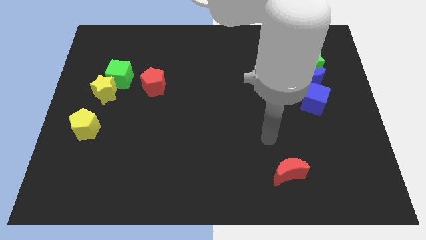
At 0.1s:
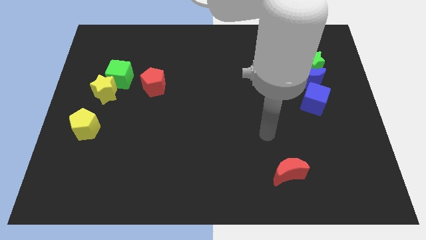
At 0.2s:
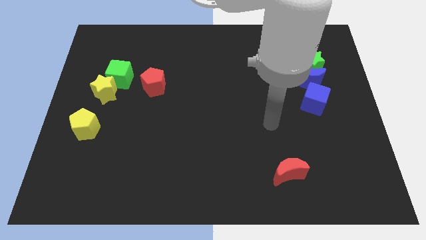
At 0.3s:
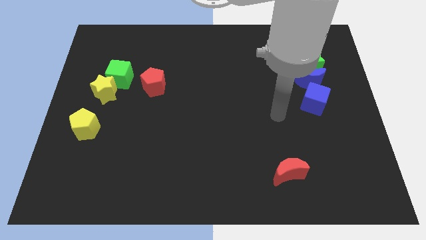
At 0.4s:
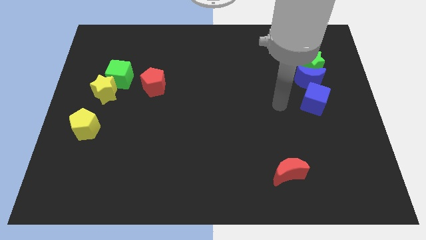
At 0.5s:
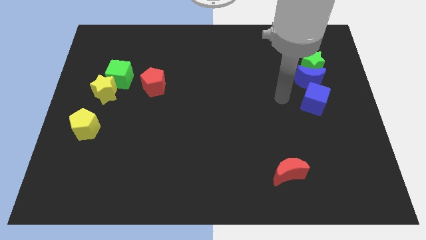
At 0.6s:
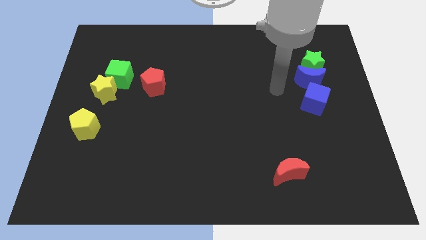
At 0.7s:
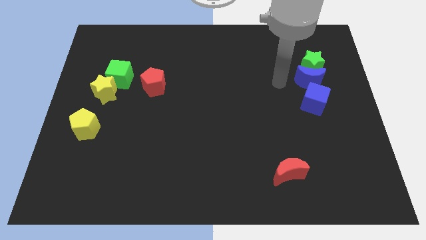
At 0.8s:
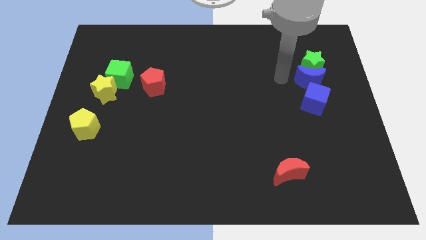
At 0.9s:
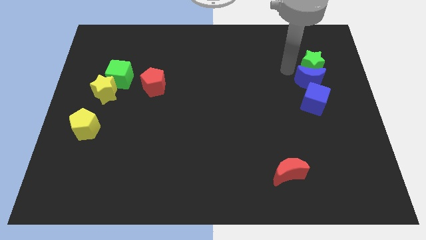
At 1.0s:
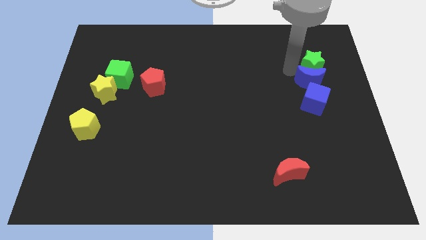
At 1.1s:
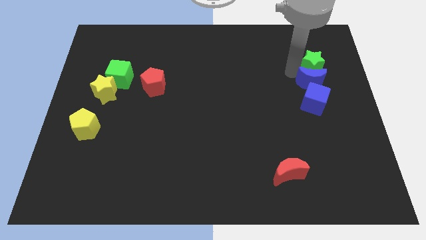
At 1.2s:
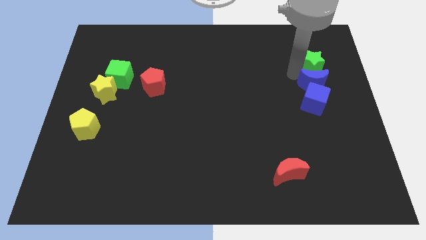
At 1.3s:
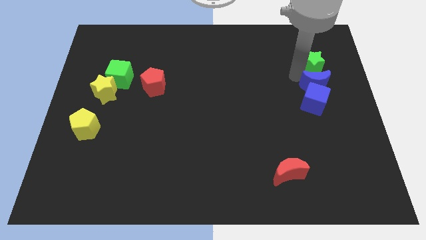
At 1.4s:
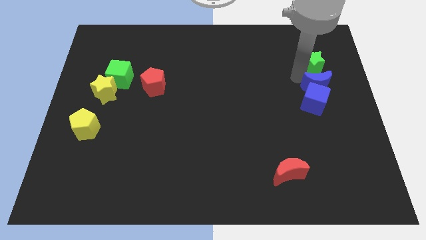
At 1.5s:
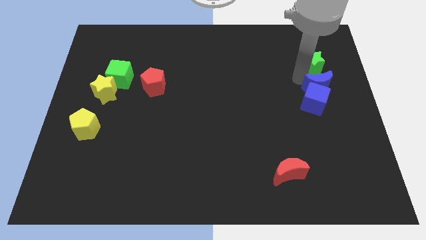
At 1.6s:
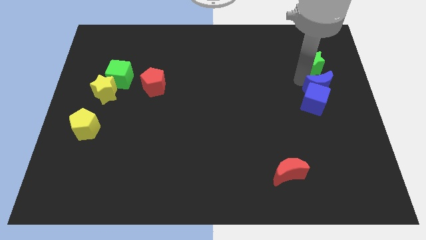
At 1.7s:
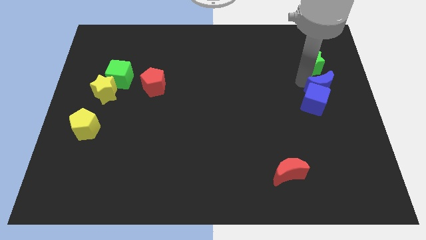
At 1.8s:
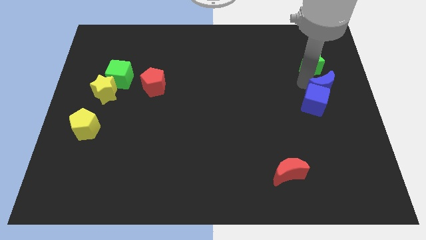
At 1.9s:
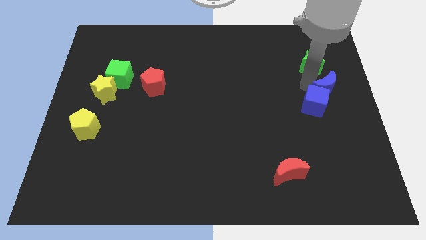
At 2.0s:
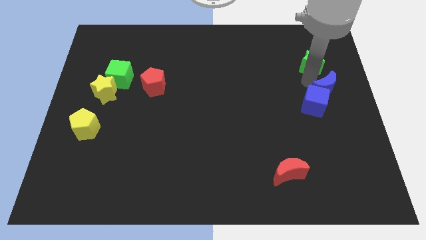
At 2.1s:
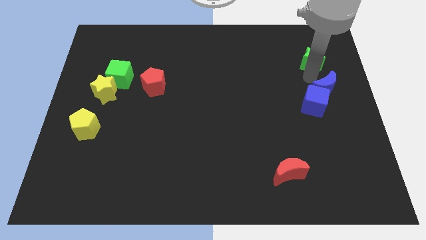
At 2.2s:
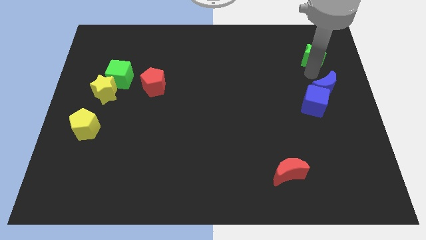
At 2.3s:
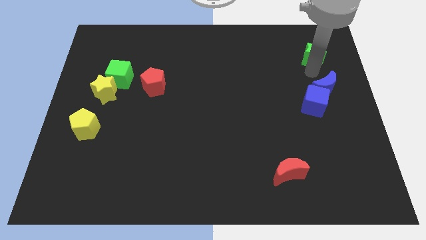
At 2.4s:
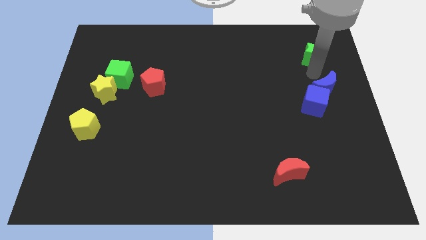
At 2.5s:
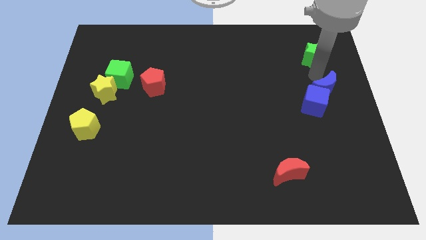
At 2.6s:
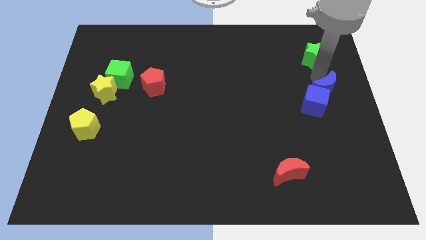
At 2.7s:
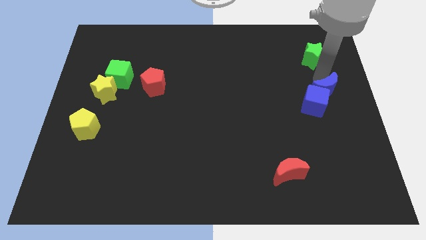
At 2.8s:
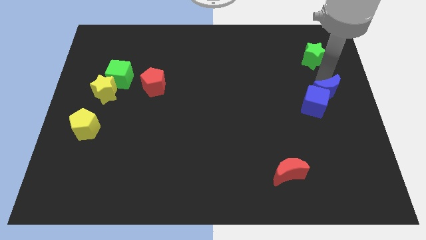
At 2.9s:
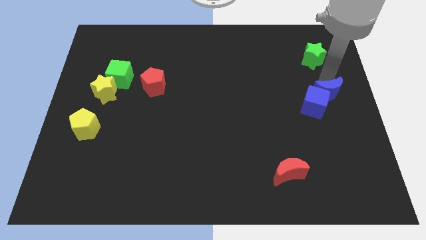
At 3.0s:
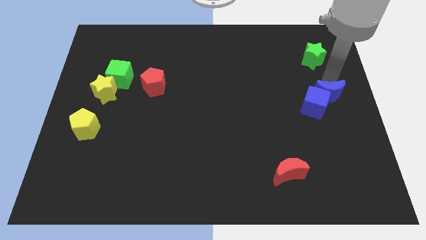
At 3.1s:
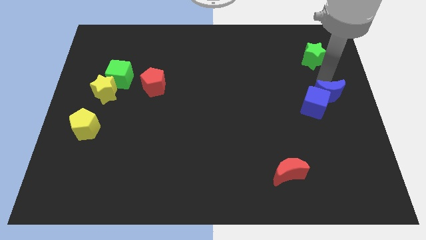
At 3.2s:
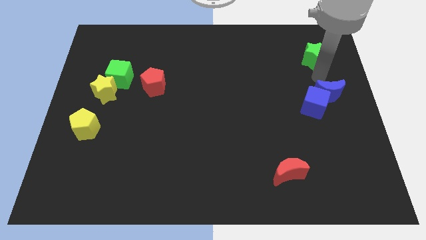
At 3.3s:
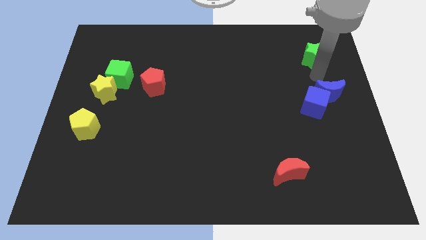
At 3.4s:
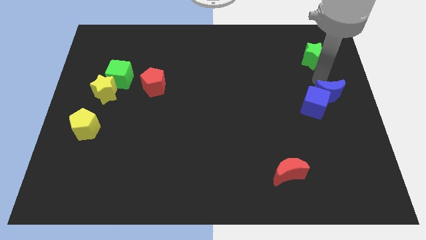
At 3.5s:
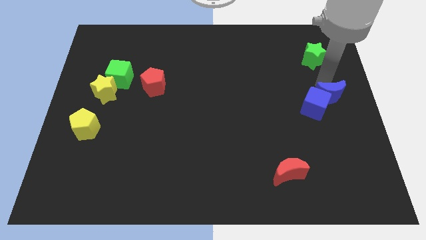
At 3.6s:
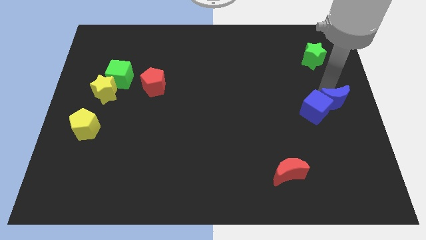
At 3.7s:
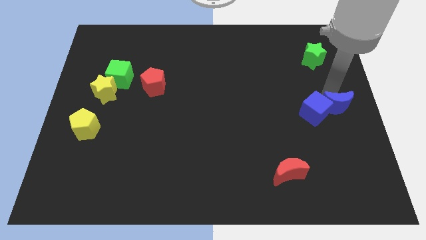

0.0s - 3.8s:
push the blue moon a bit downwards

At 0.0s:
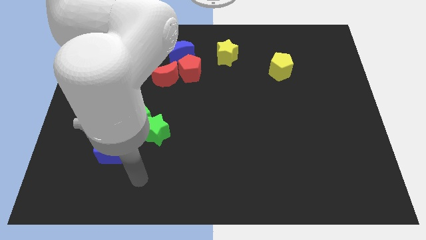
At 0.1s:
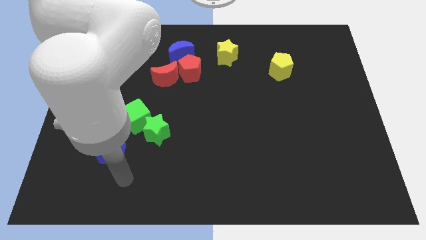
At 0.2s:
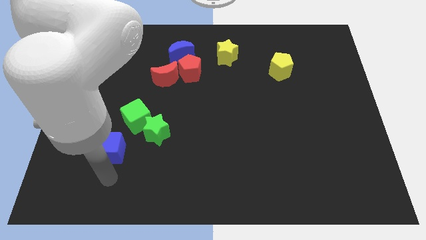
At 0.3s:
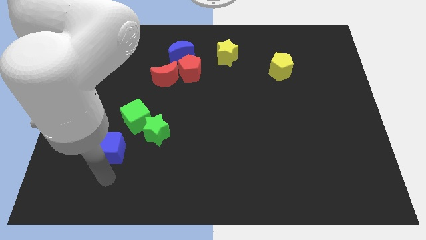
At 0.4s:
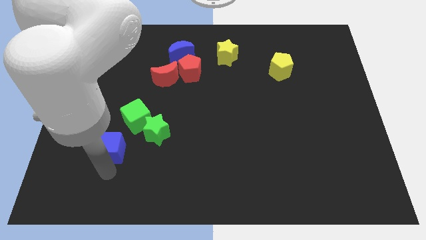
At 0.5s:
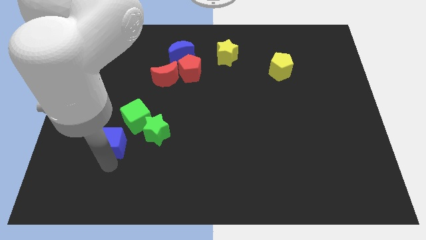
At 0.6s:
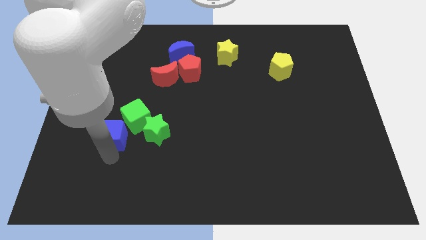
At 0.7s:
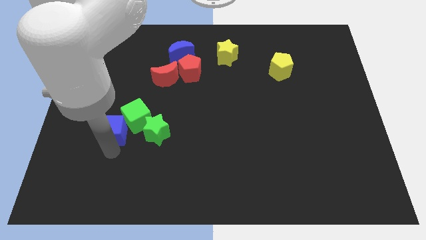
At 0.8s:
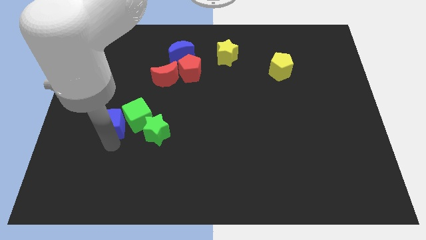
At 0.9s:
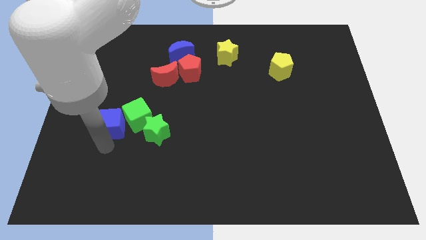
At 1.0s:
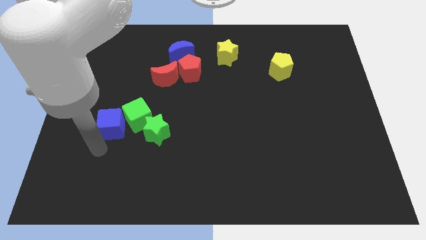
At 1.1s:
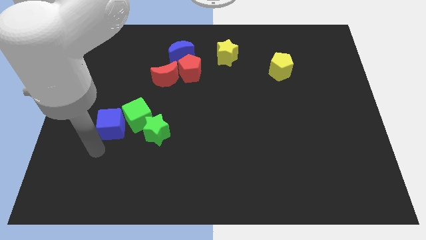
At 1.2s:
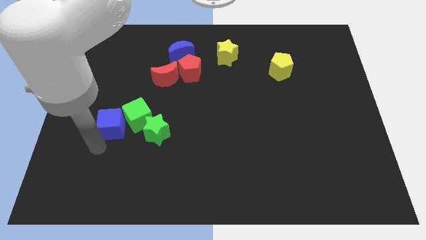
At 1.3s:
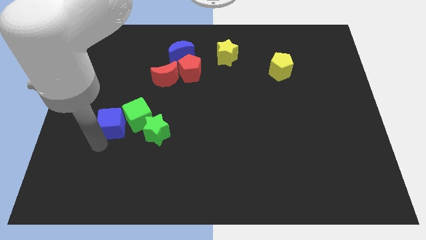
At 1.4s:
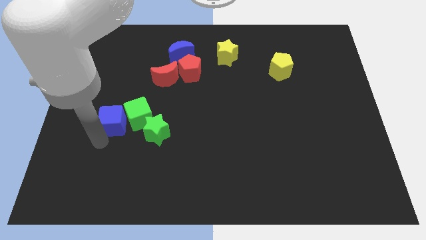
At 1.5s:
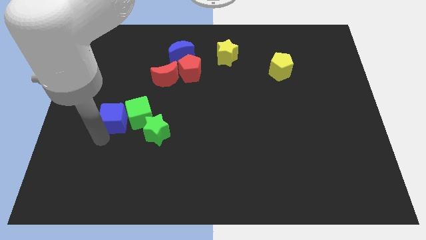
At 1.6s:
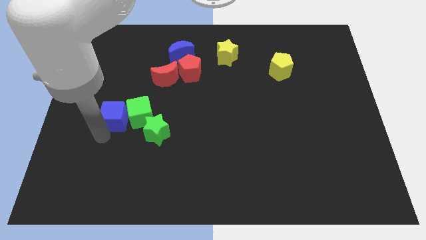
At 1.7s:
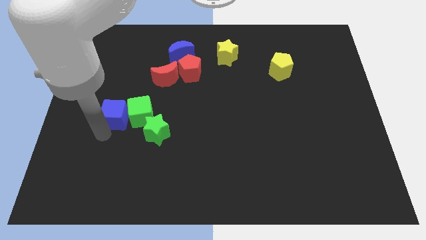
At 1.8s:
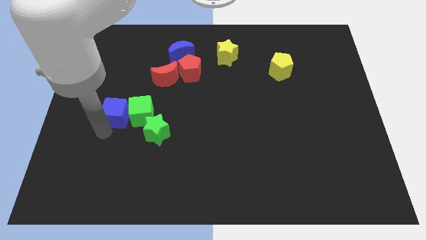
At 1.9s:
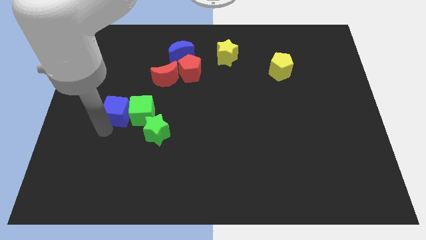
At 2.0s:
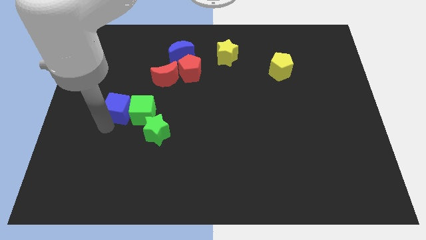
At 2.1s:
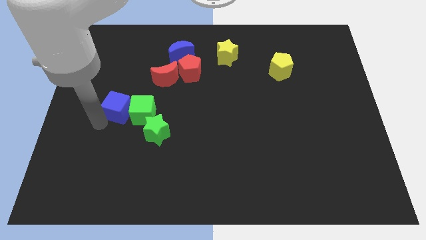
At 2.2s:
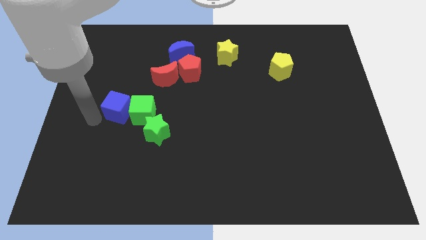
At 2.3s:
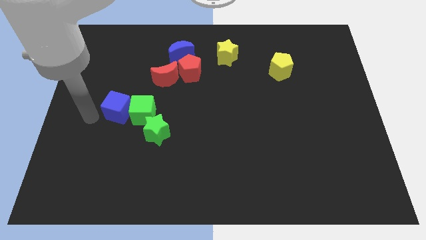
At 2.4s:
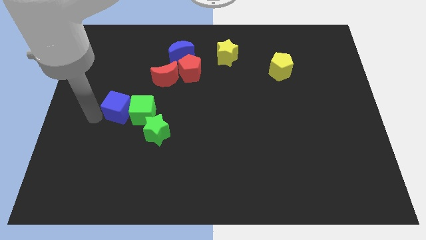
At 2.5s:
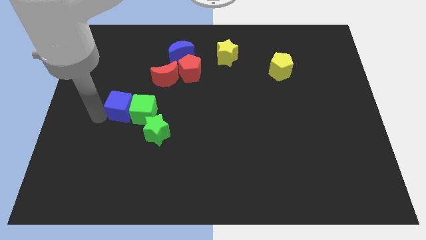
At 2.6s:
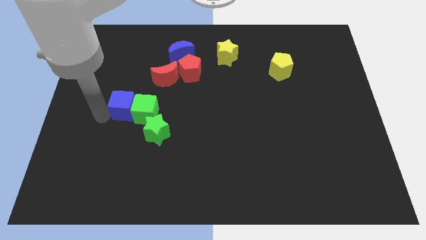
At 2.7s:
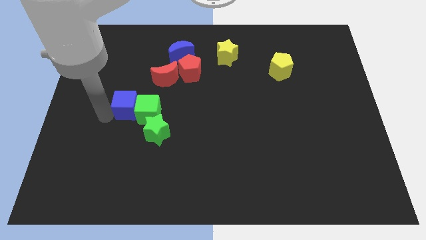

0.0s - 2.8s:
slightly slide the blue cube upwards and then to the right

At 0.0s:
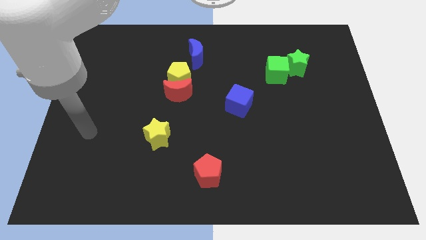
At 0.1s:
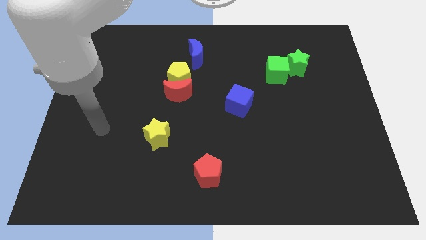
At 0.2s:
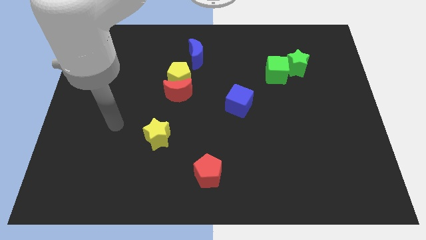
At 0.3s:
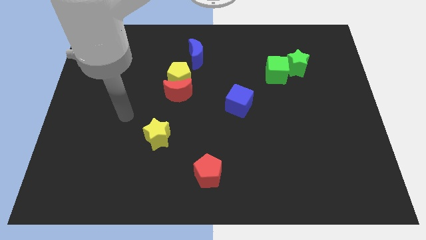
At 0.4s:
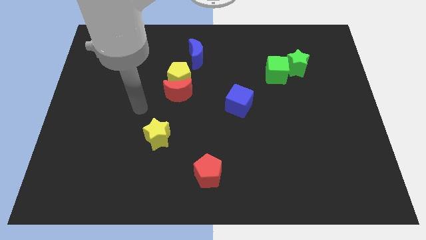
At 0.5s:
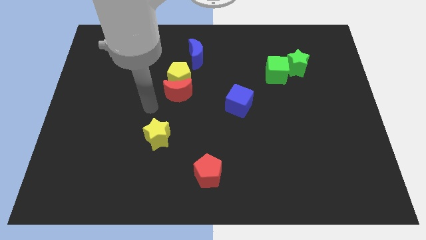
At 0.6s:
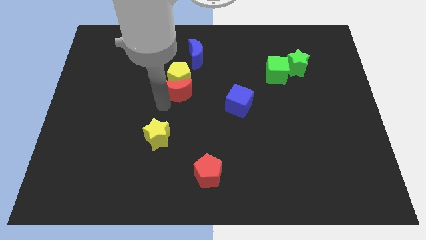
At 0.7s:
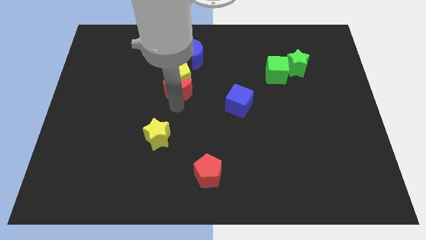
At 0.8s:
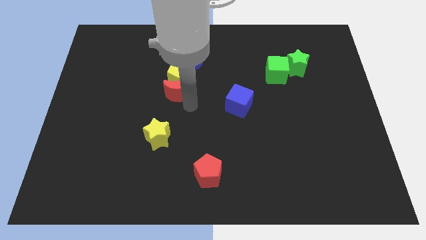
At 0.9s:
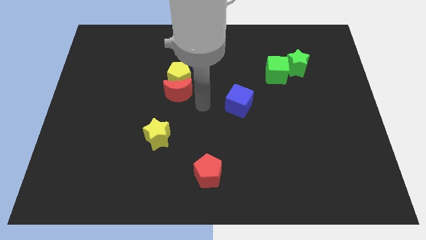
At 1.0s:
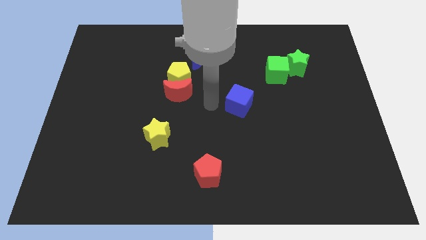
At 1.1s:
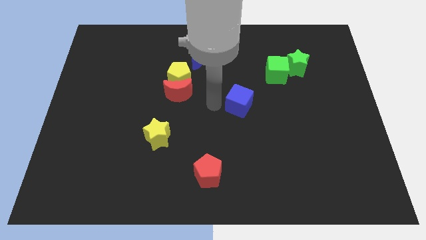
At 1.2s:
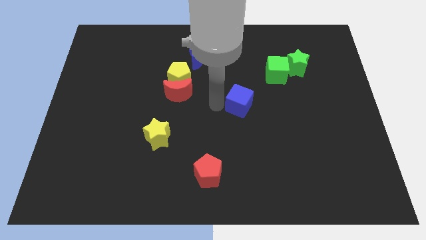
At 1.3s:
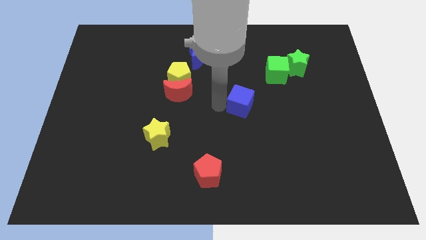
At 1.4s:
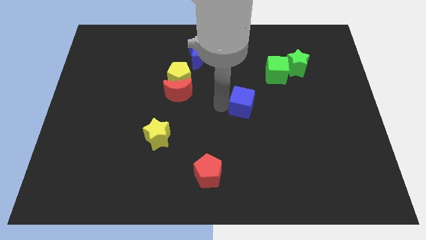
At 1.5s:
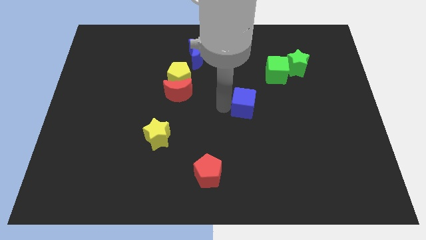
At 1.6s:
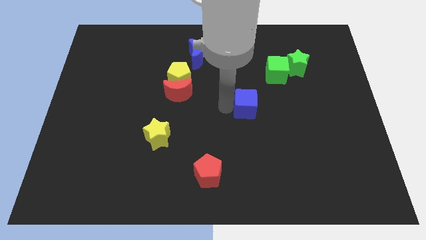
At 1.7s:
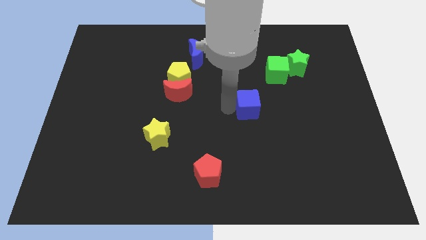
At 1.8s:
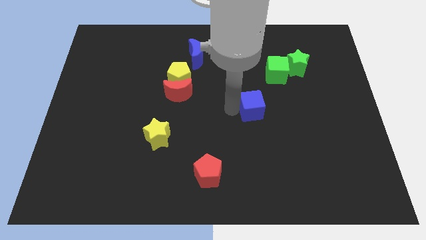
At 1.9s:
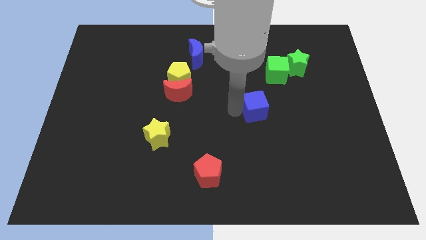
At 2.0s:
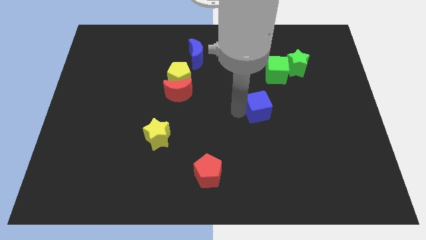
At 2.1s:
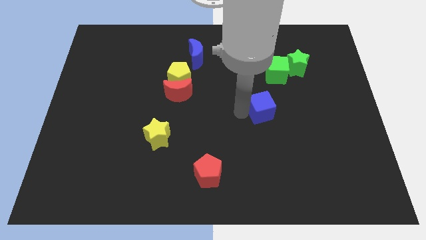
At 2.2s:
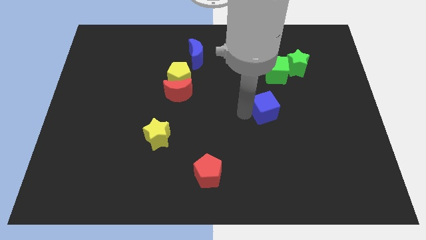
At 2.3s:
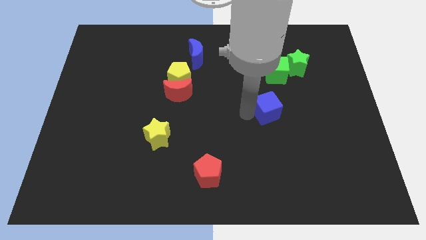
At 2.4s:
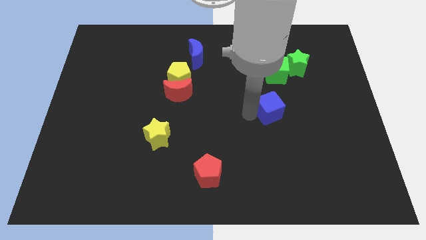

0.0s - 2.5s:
slightly move the blue cube to the right
